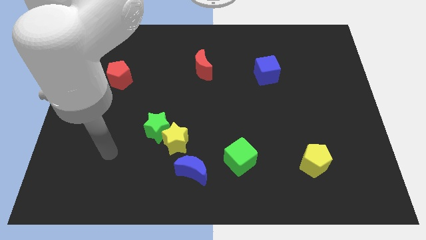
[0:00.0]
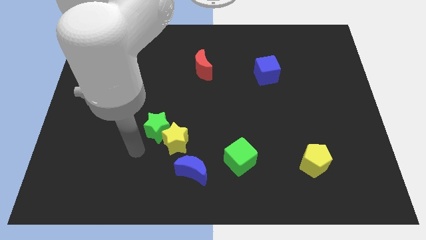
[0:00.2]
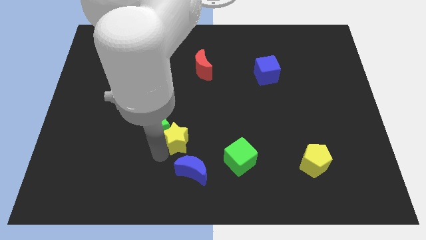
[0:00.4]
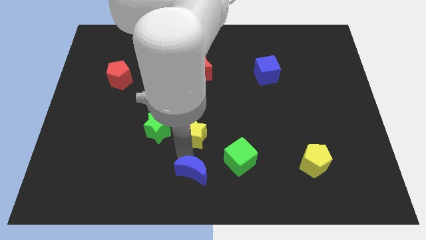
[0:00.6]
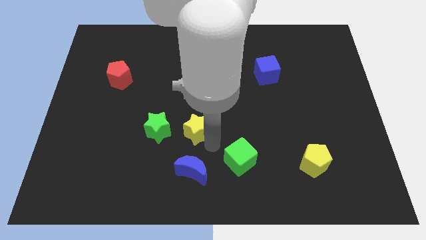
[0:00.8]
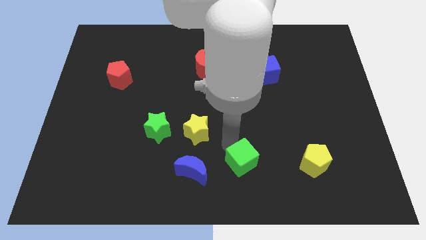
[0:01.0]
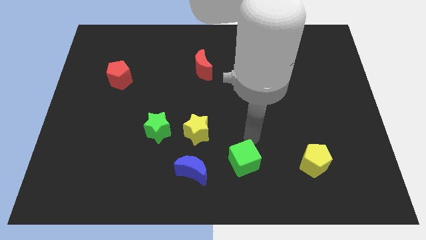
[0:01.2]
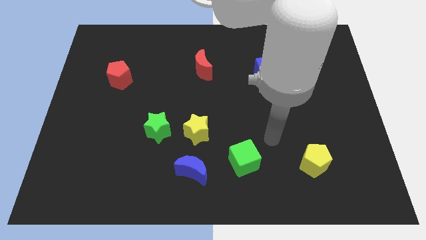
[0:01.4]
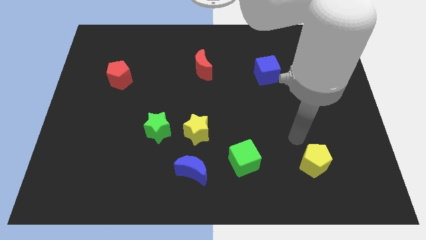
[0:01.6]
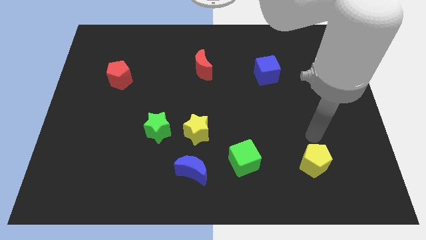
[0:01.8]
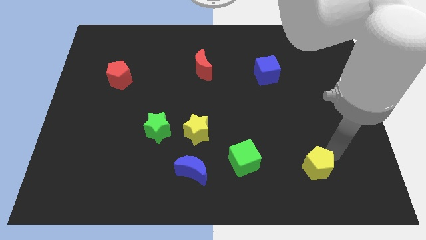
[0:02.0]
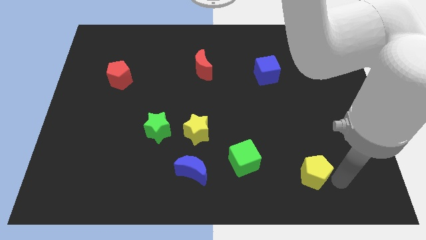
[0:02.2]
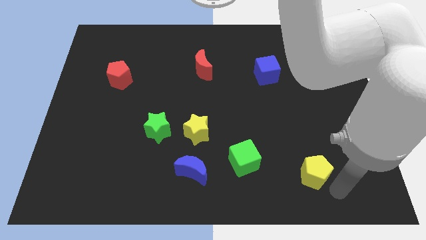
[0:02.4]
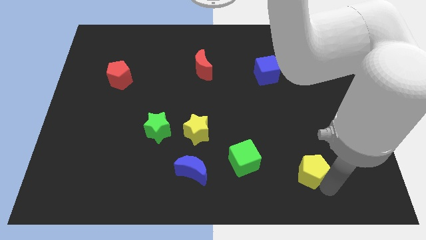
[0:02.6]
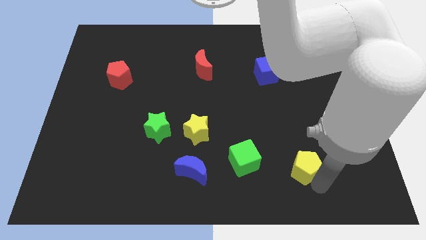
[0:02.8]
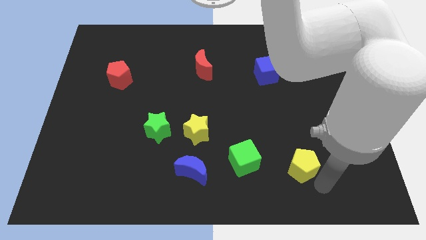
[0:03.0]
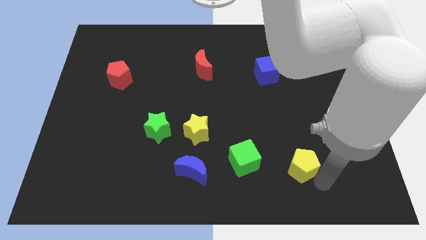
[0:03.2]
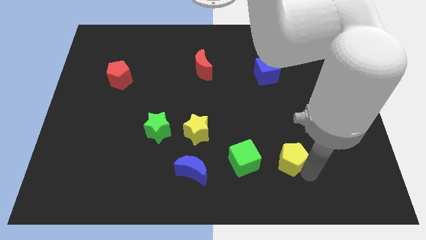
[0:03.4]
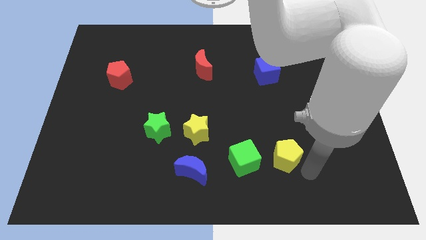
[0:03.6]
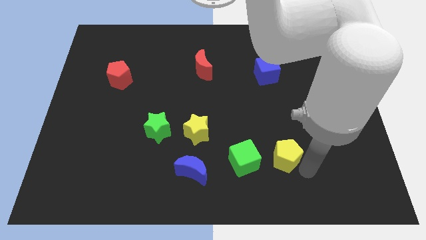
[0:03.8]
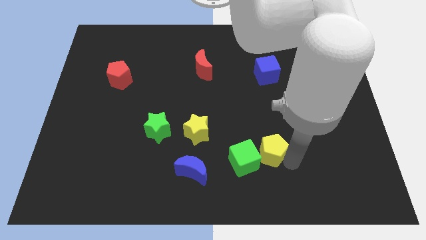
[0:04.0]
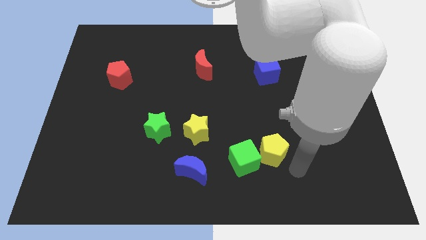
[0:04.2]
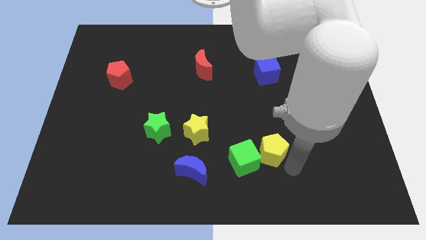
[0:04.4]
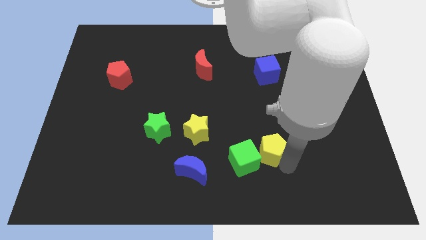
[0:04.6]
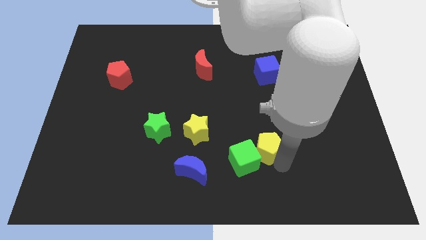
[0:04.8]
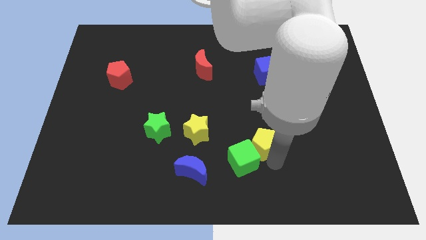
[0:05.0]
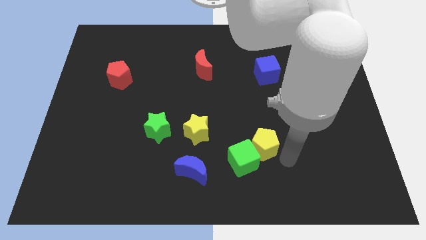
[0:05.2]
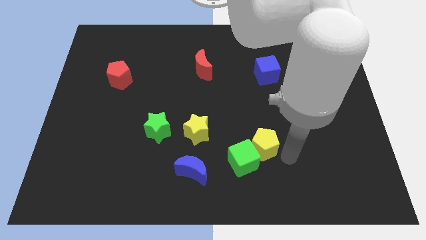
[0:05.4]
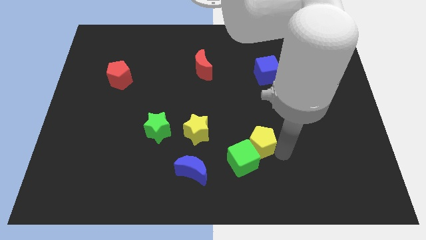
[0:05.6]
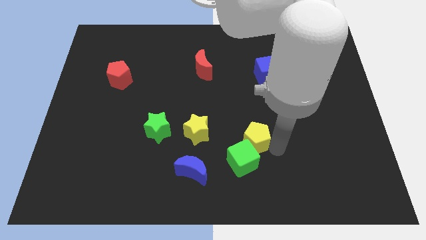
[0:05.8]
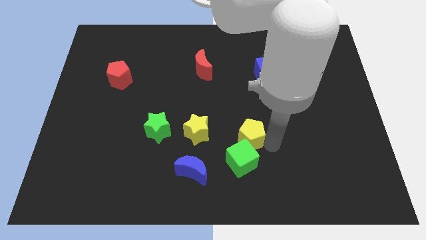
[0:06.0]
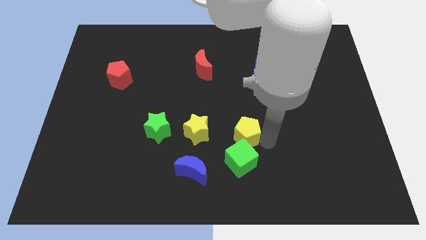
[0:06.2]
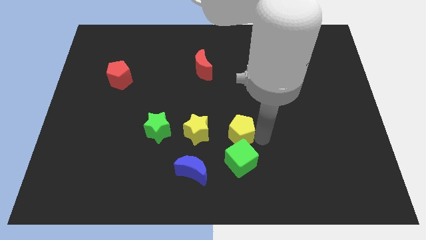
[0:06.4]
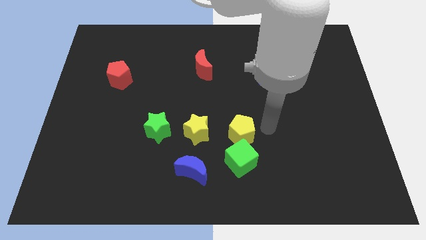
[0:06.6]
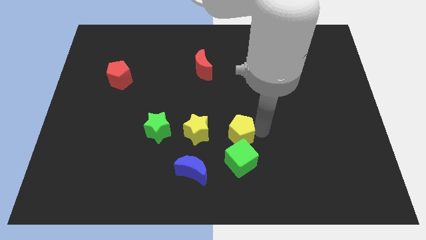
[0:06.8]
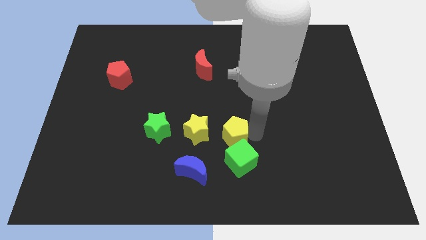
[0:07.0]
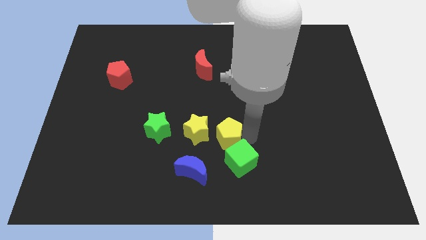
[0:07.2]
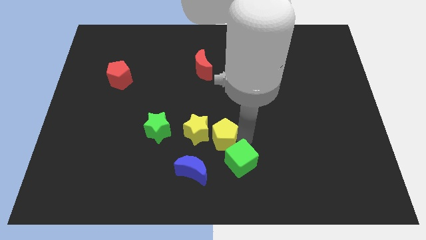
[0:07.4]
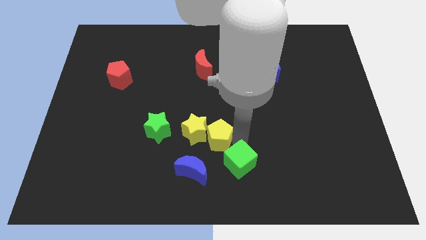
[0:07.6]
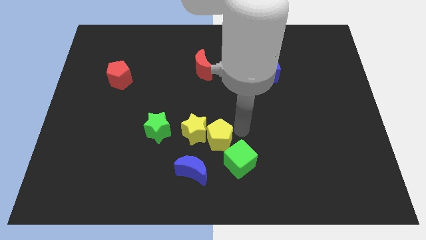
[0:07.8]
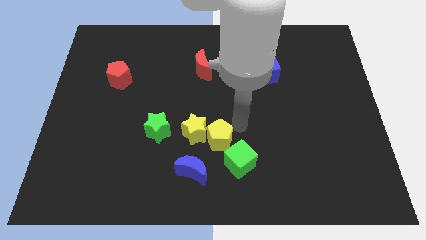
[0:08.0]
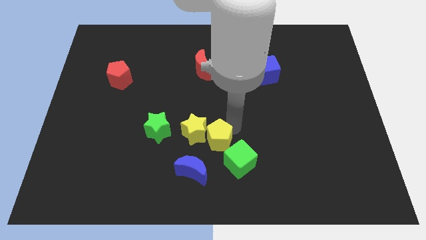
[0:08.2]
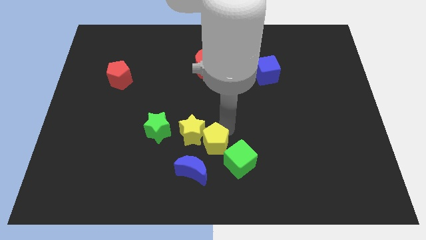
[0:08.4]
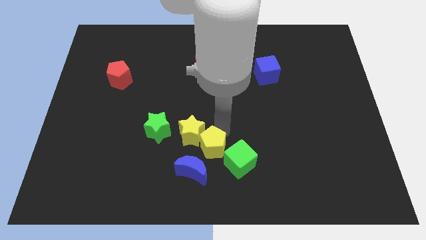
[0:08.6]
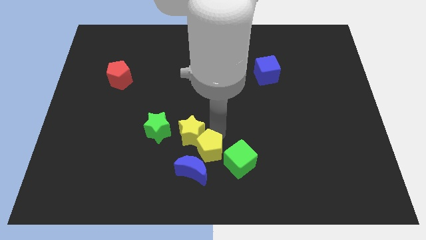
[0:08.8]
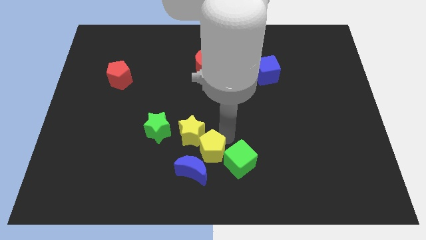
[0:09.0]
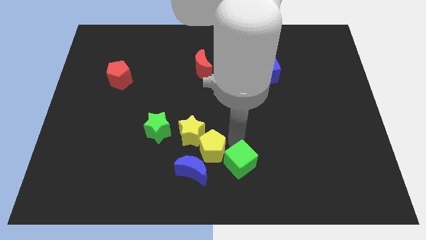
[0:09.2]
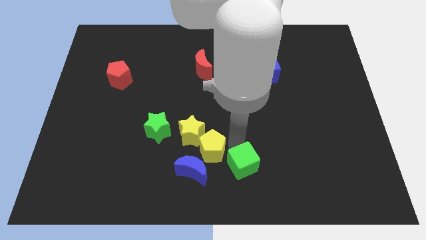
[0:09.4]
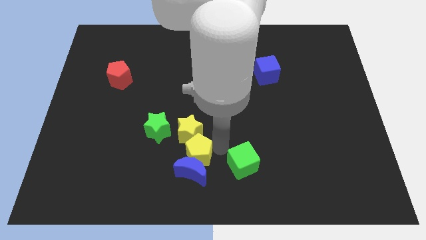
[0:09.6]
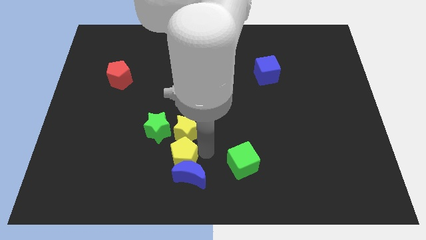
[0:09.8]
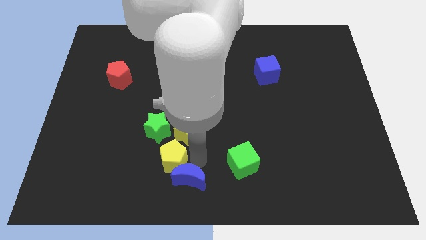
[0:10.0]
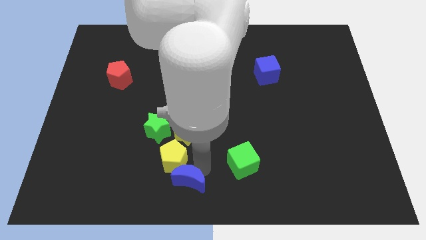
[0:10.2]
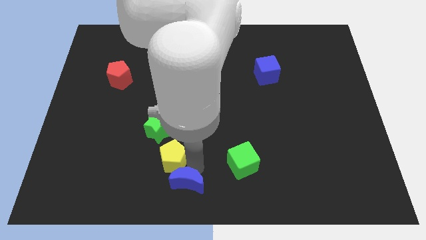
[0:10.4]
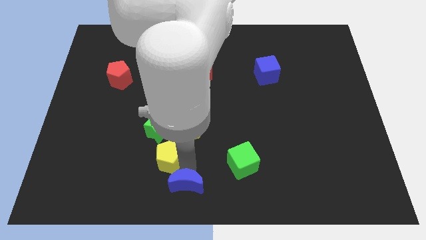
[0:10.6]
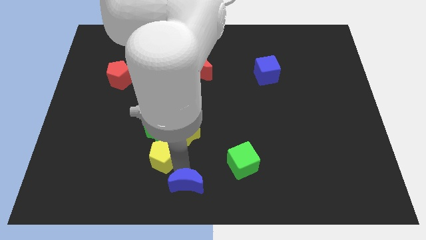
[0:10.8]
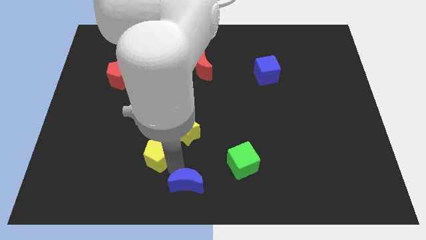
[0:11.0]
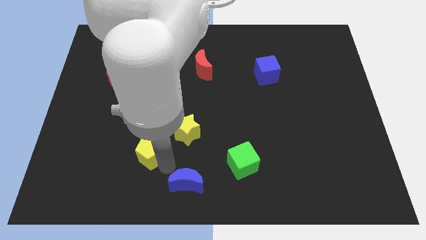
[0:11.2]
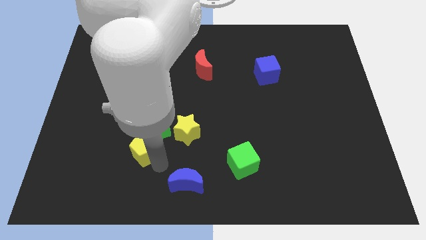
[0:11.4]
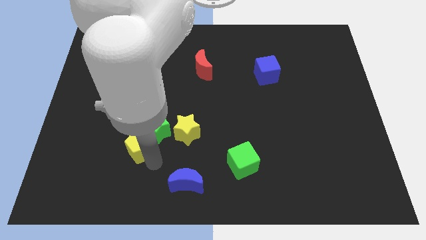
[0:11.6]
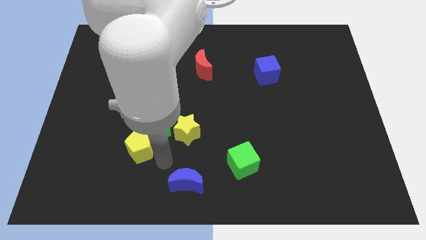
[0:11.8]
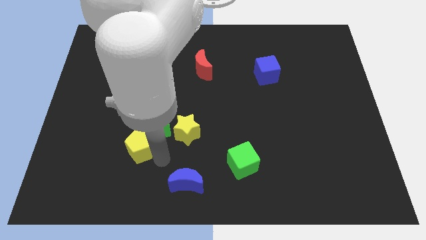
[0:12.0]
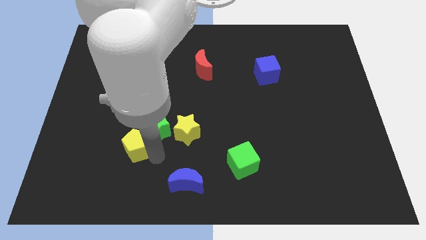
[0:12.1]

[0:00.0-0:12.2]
put the yellow pentagon left of the green star
